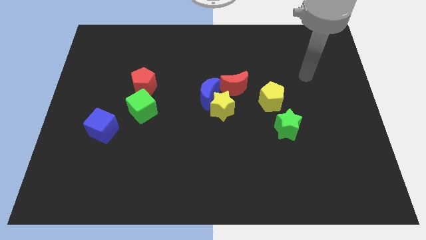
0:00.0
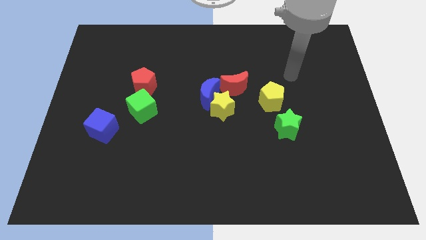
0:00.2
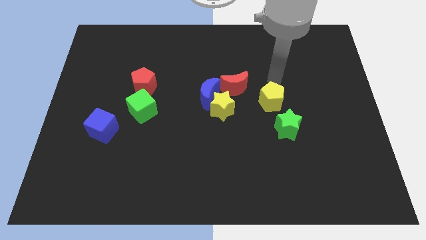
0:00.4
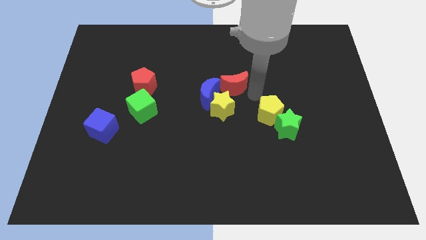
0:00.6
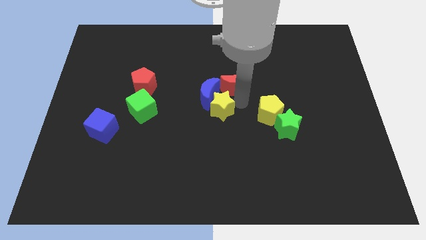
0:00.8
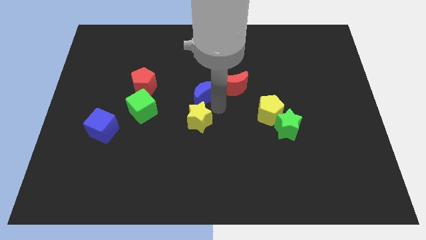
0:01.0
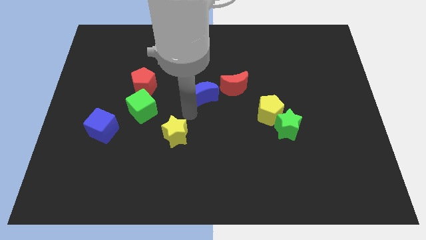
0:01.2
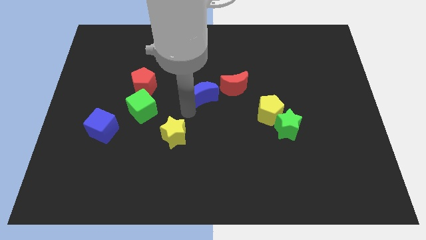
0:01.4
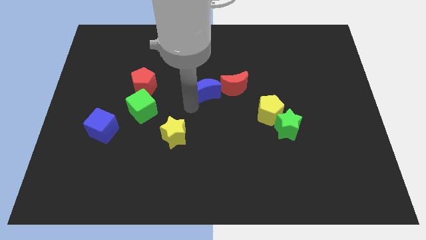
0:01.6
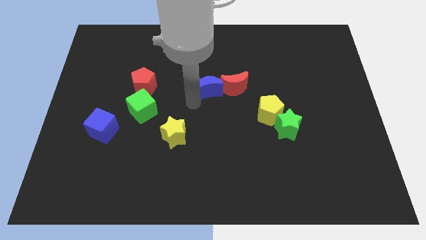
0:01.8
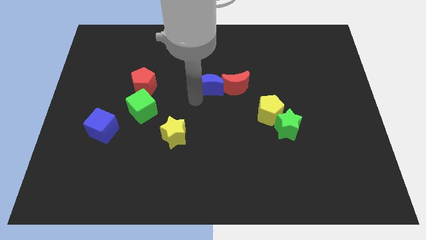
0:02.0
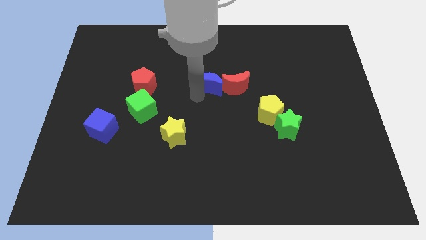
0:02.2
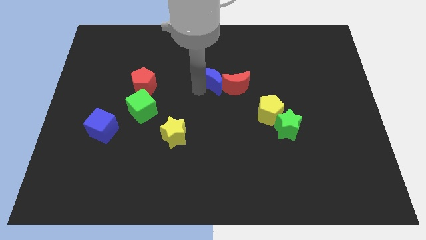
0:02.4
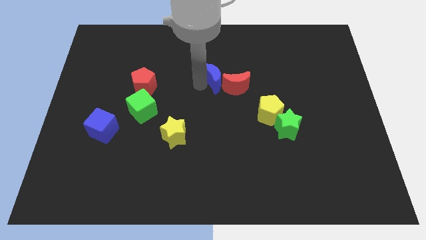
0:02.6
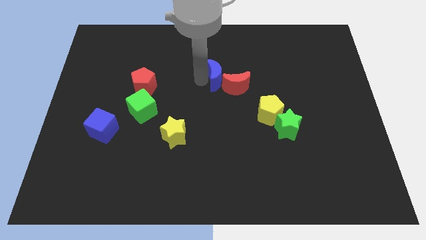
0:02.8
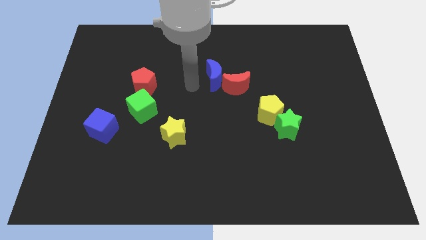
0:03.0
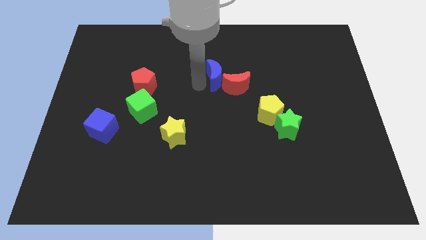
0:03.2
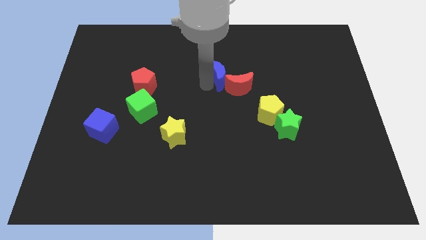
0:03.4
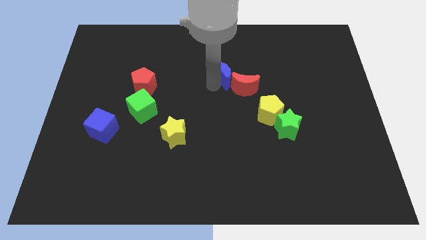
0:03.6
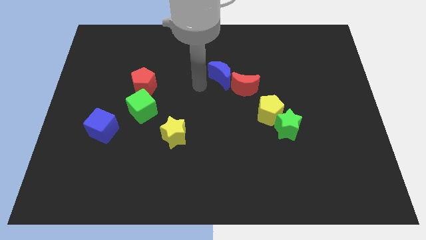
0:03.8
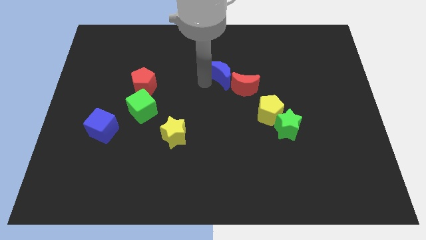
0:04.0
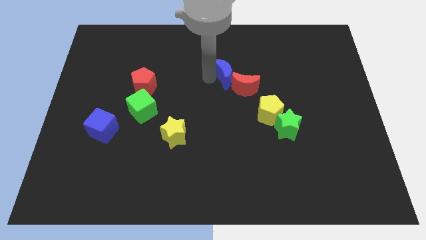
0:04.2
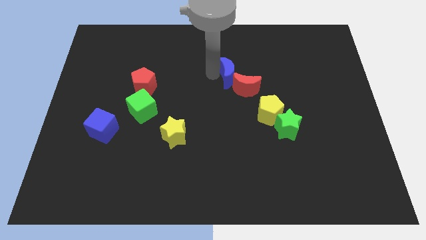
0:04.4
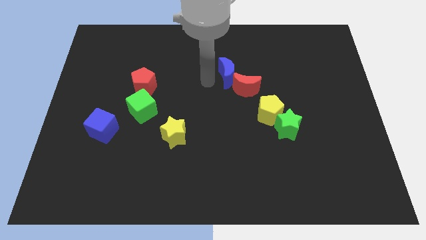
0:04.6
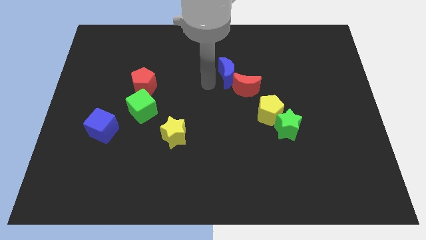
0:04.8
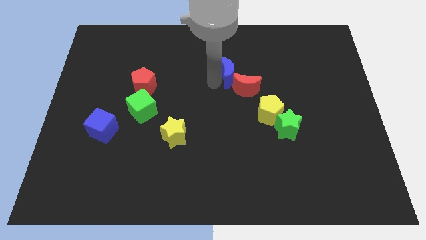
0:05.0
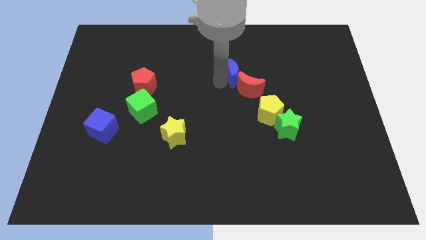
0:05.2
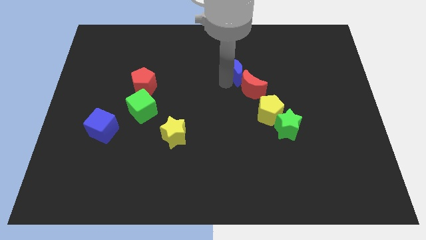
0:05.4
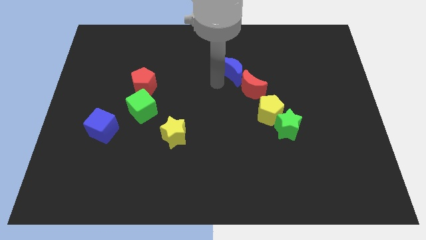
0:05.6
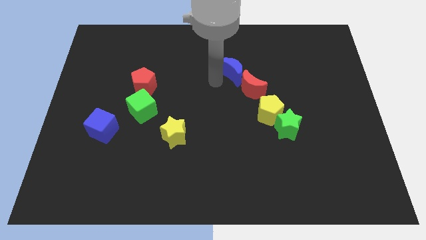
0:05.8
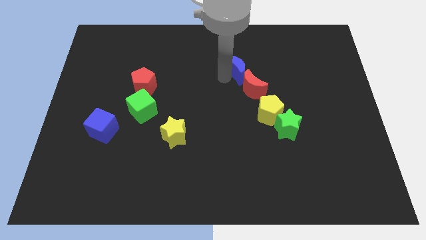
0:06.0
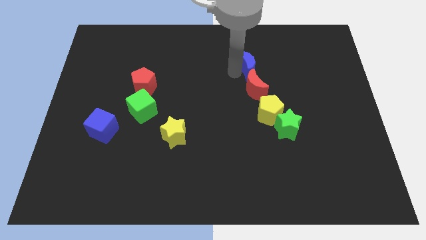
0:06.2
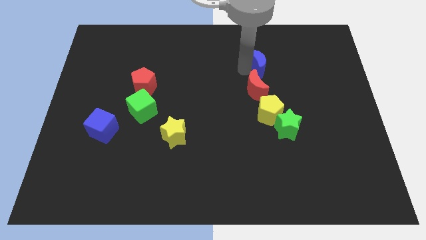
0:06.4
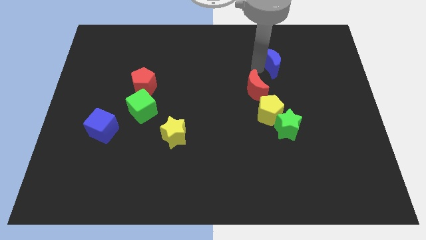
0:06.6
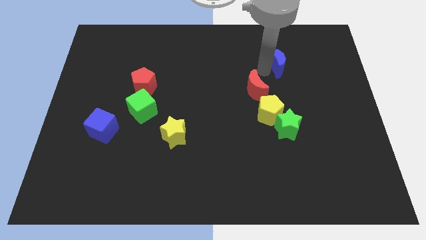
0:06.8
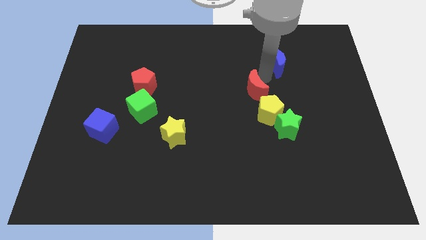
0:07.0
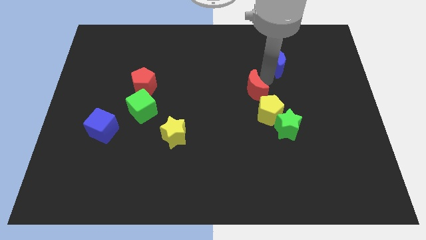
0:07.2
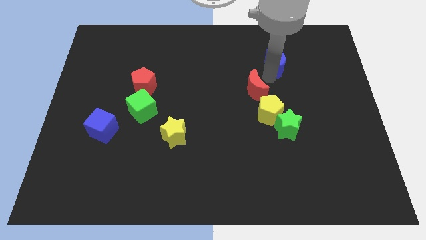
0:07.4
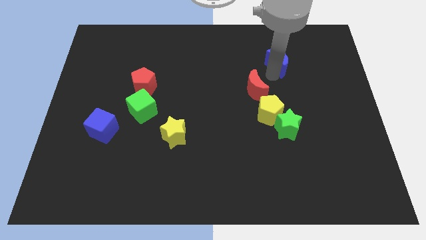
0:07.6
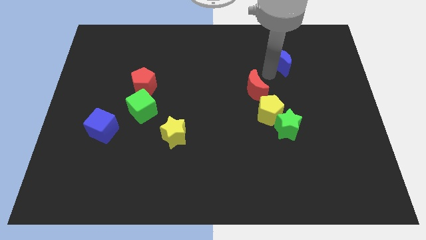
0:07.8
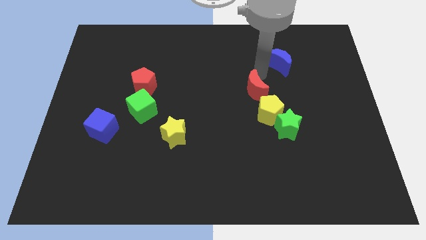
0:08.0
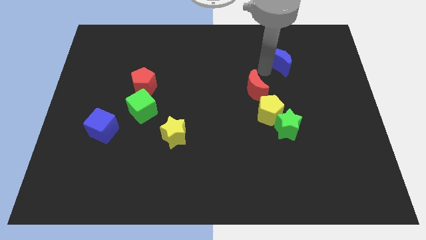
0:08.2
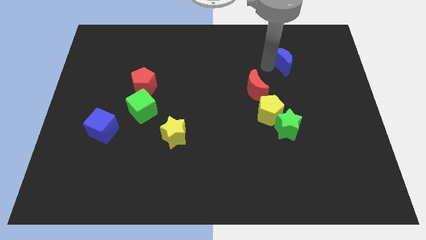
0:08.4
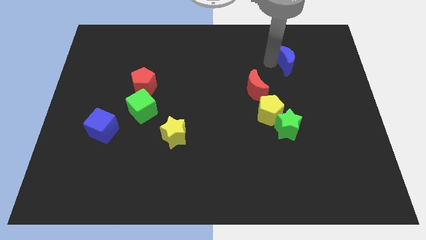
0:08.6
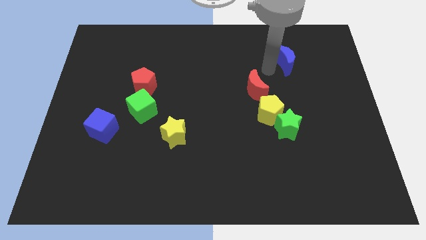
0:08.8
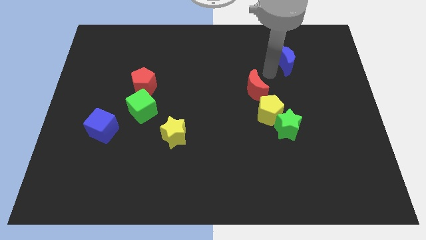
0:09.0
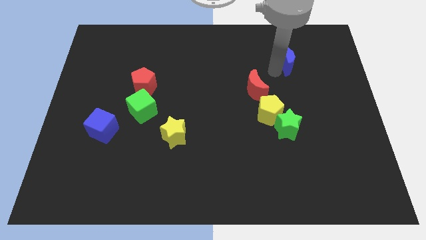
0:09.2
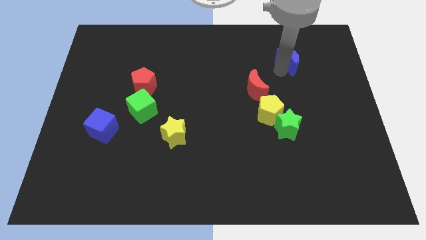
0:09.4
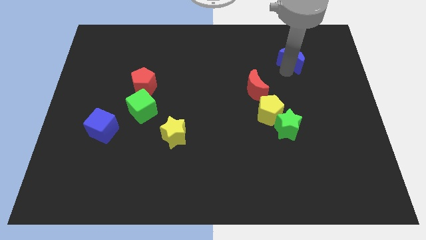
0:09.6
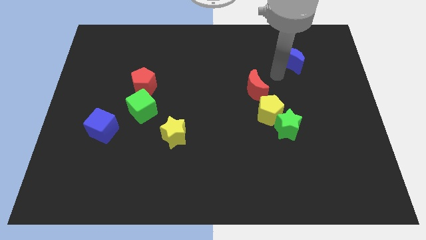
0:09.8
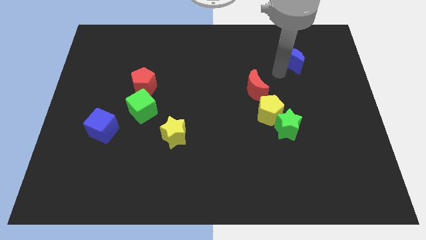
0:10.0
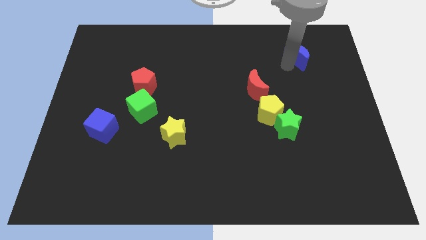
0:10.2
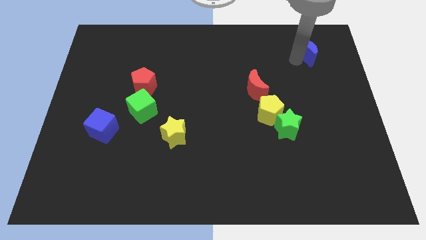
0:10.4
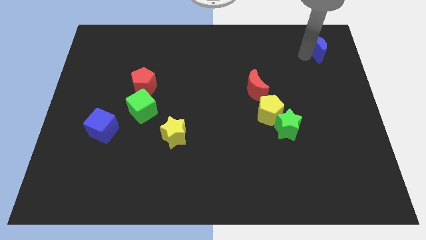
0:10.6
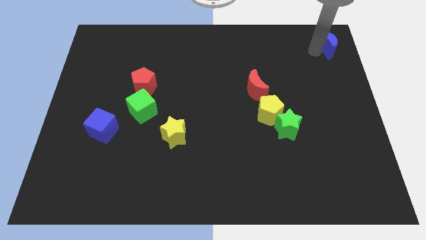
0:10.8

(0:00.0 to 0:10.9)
slide the blue moon to the top right

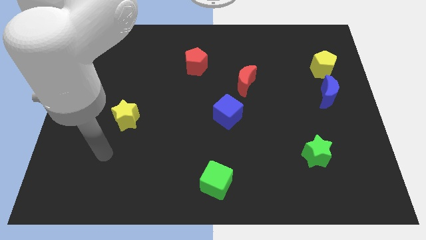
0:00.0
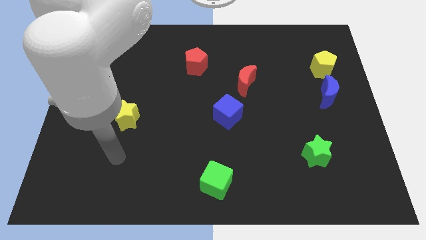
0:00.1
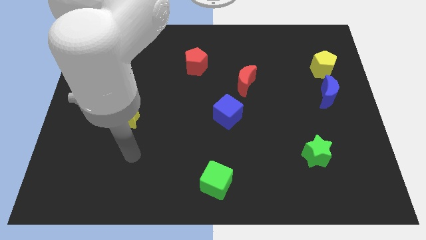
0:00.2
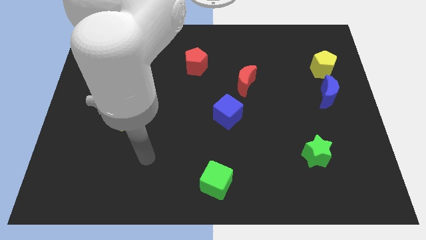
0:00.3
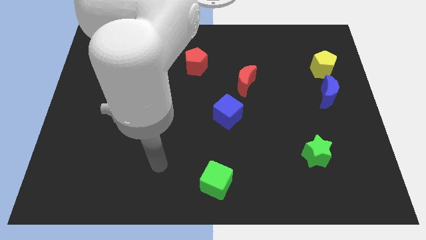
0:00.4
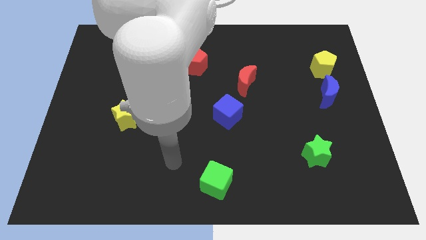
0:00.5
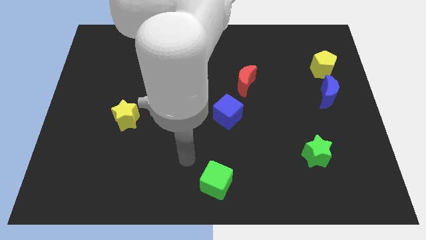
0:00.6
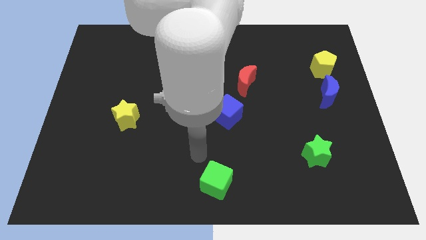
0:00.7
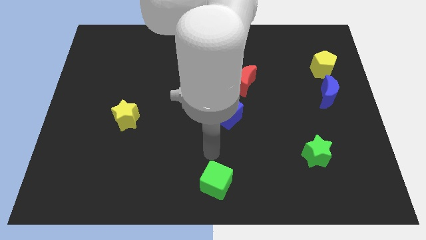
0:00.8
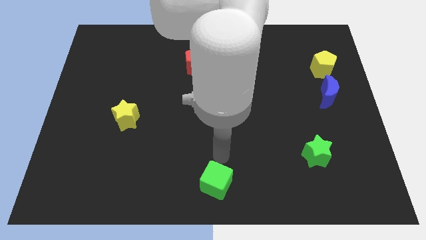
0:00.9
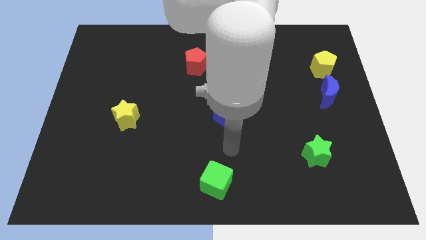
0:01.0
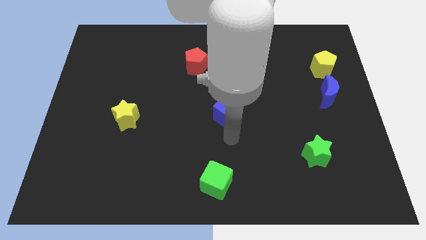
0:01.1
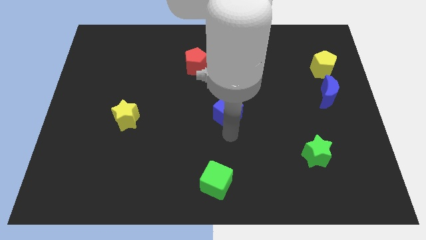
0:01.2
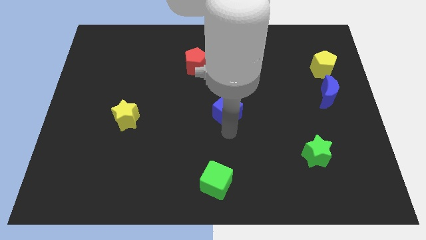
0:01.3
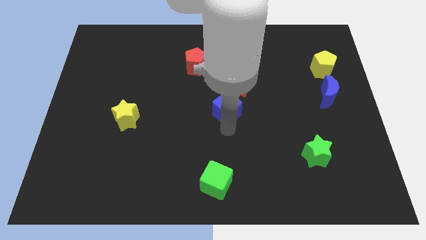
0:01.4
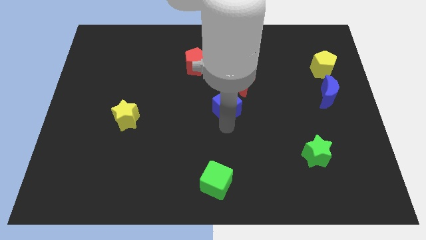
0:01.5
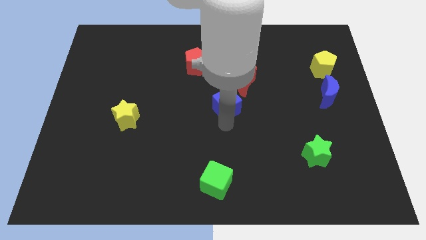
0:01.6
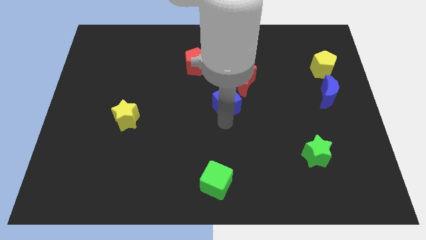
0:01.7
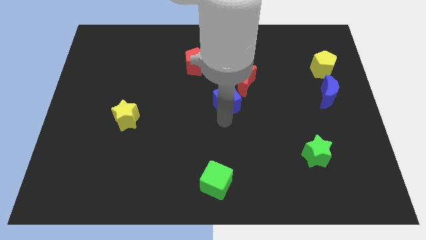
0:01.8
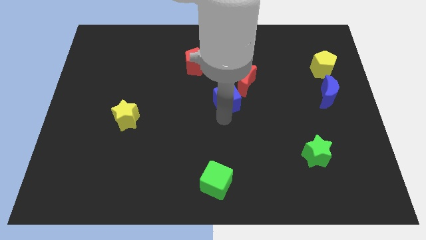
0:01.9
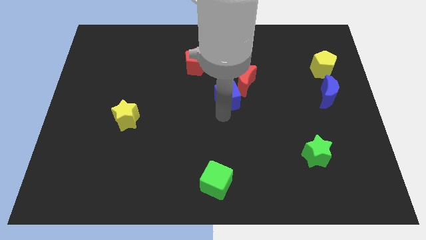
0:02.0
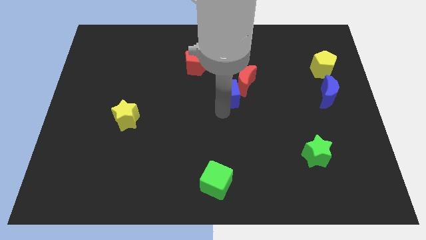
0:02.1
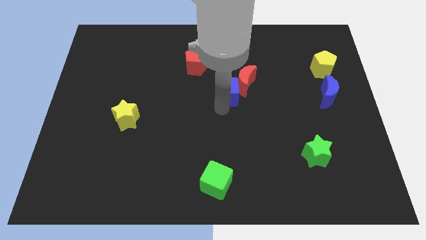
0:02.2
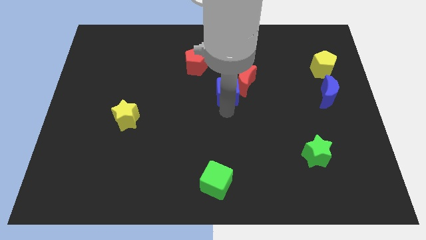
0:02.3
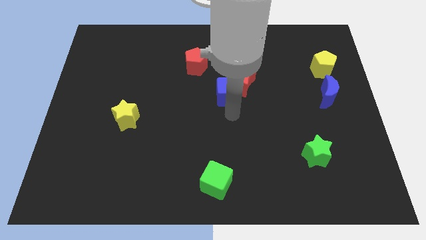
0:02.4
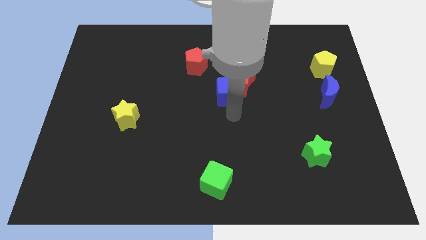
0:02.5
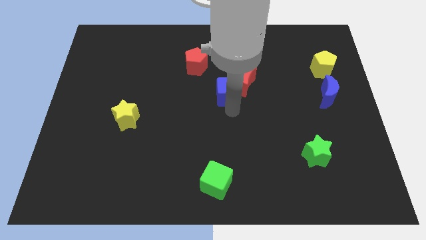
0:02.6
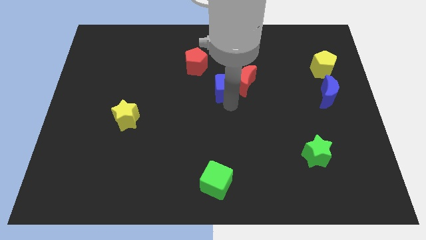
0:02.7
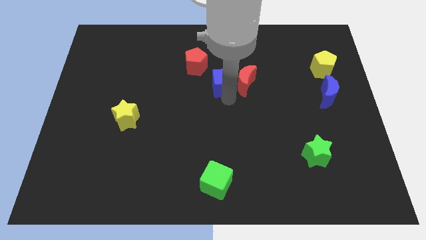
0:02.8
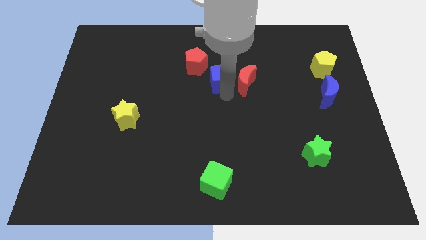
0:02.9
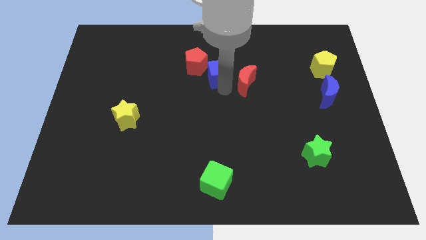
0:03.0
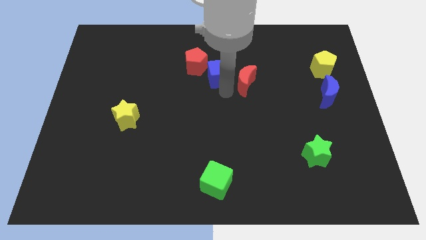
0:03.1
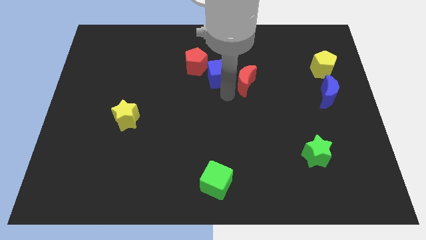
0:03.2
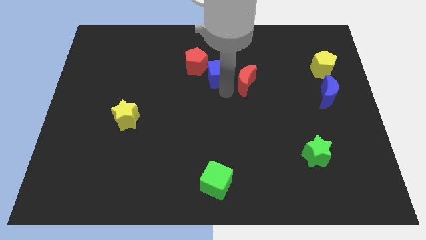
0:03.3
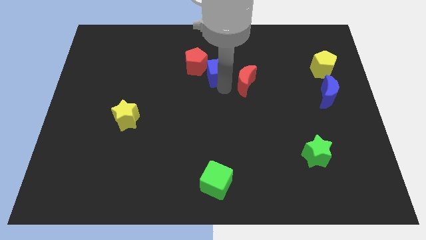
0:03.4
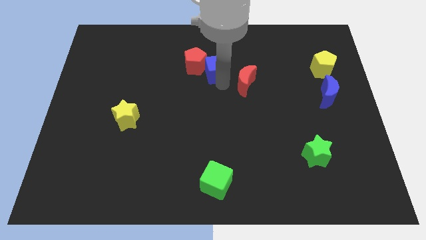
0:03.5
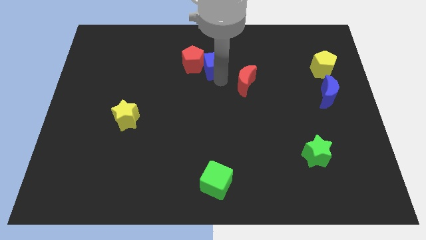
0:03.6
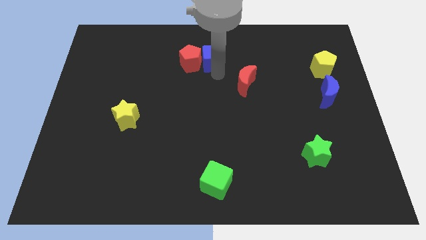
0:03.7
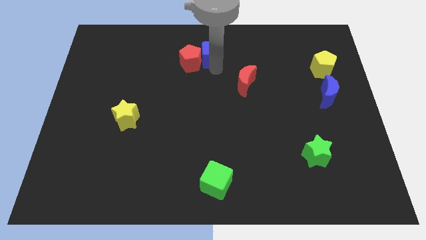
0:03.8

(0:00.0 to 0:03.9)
slide the blue cube to the top
